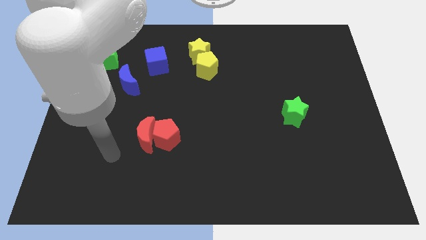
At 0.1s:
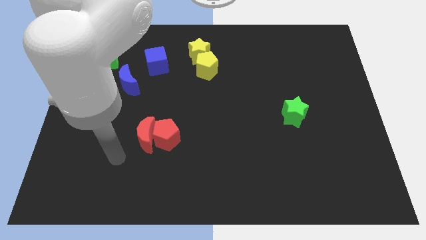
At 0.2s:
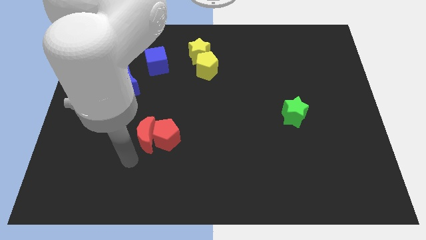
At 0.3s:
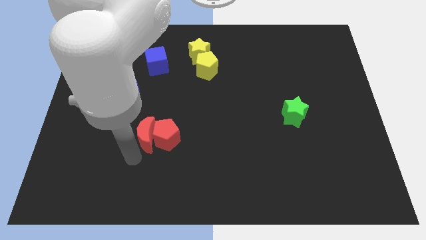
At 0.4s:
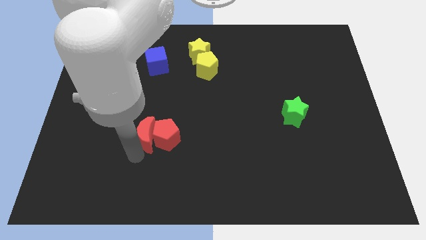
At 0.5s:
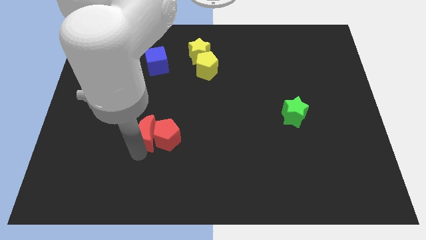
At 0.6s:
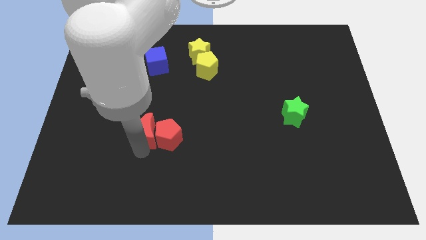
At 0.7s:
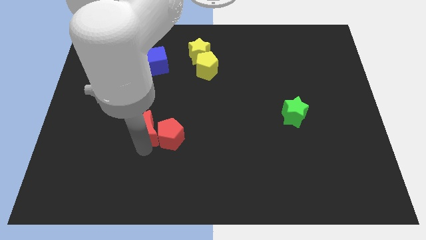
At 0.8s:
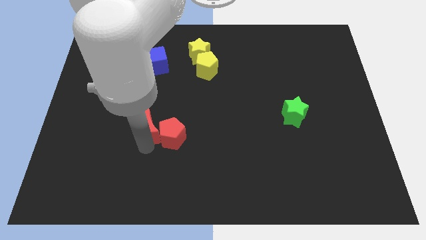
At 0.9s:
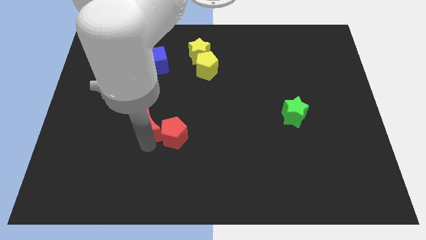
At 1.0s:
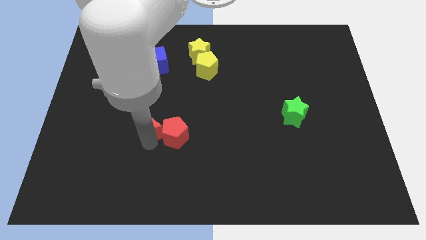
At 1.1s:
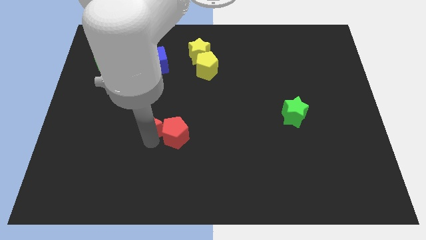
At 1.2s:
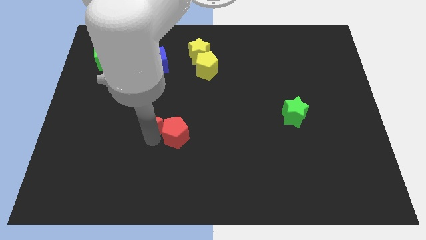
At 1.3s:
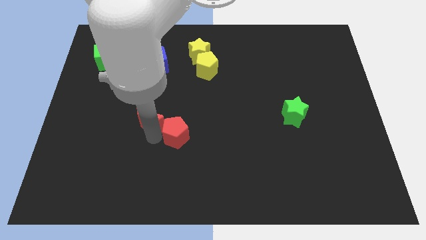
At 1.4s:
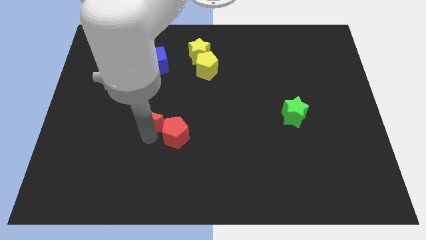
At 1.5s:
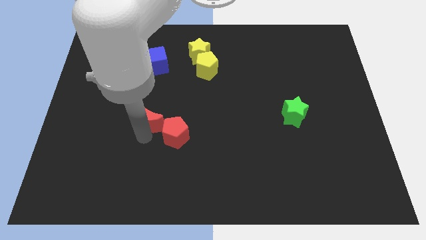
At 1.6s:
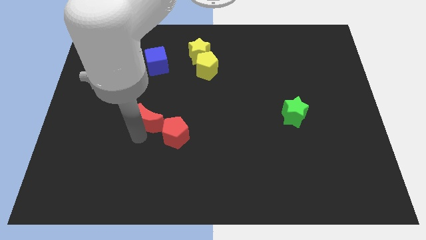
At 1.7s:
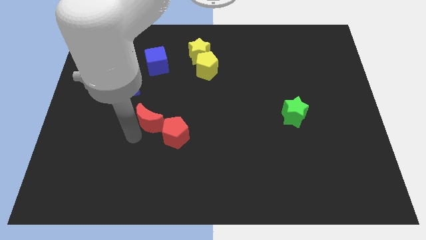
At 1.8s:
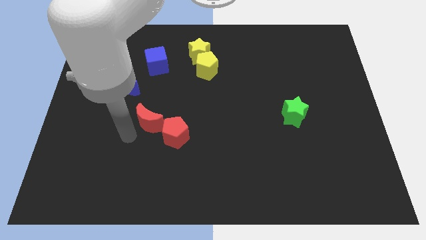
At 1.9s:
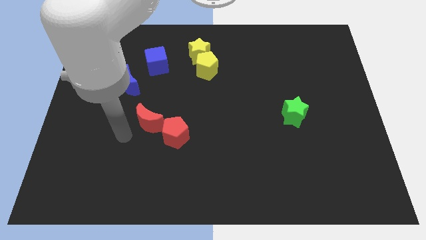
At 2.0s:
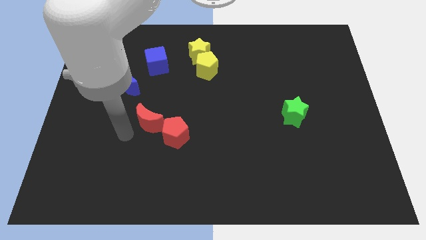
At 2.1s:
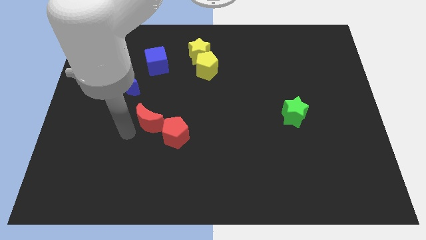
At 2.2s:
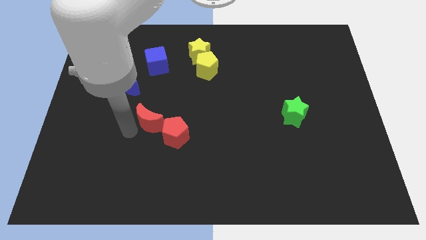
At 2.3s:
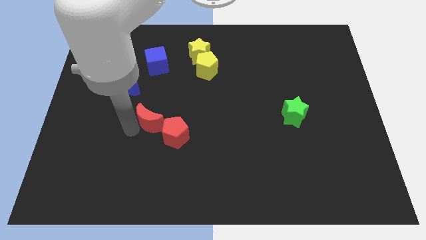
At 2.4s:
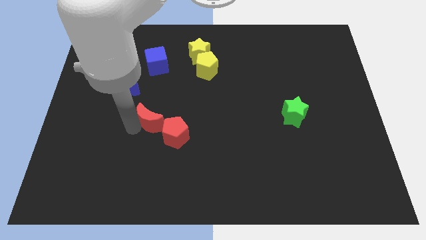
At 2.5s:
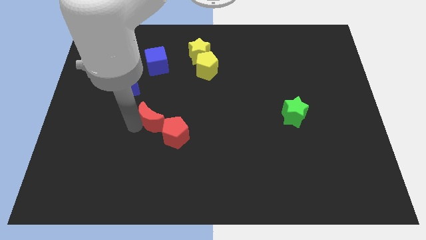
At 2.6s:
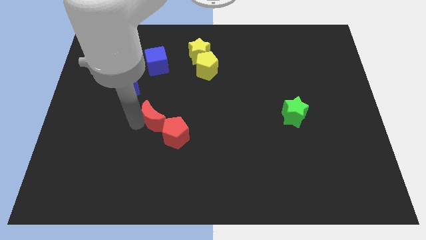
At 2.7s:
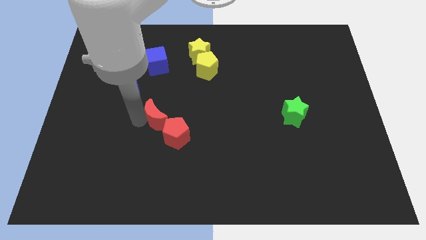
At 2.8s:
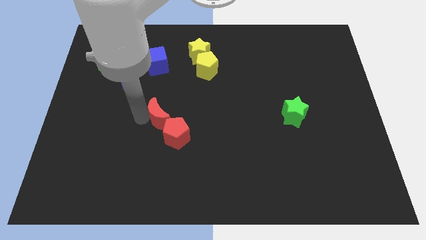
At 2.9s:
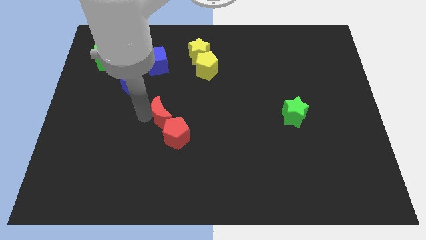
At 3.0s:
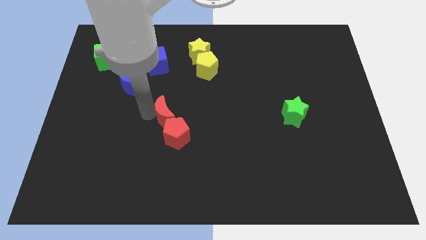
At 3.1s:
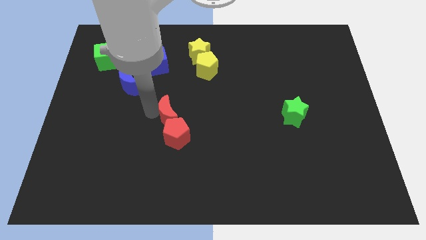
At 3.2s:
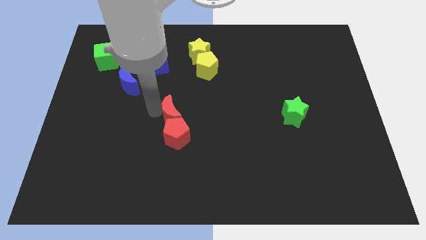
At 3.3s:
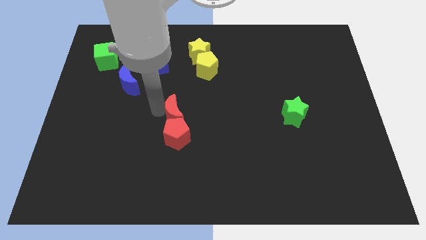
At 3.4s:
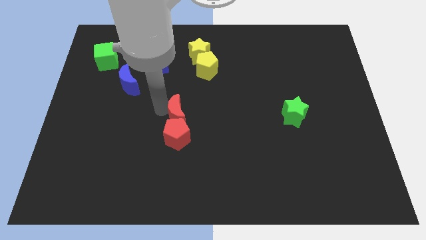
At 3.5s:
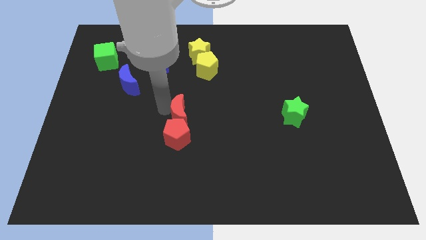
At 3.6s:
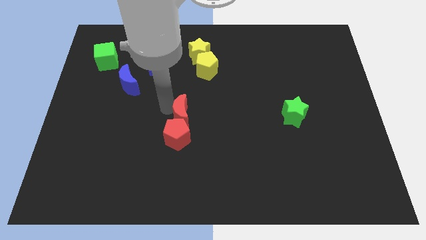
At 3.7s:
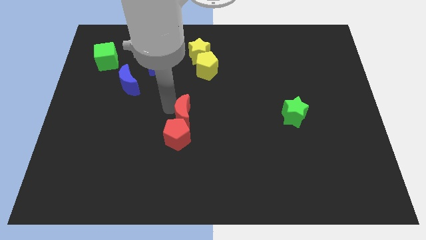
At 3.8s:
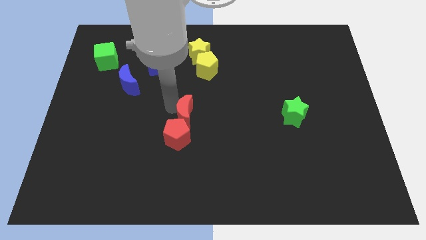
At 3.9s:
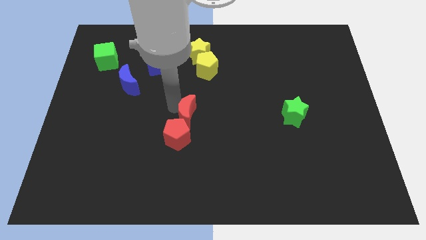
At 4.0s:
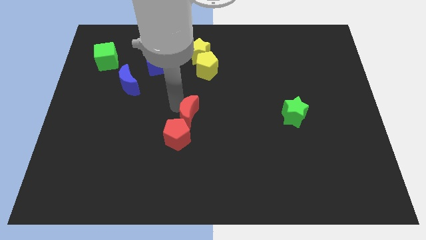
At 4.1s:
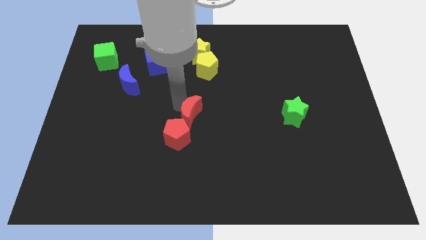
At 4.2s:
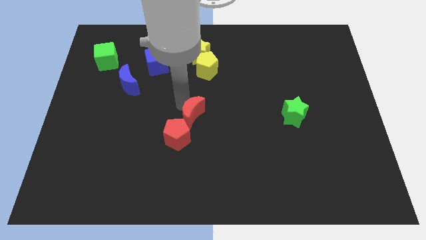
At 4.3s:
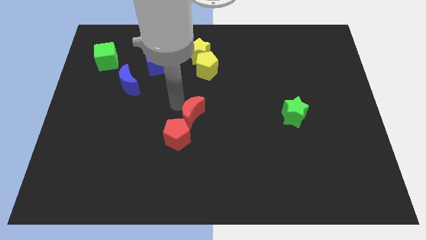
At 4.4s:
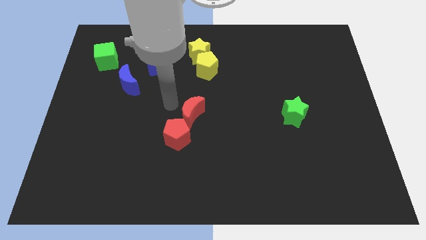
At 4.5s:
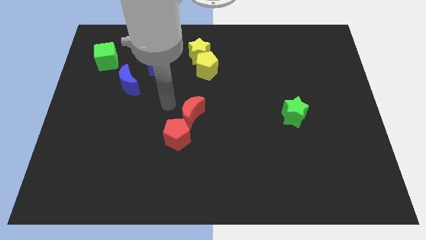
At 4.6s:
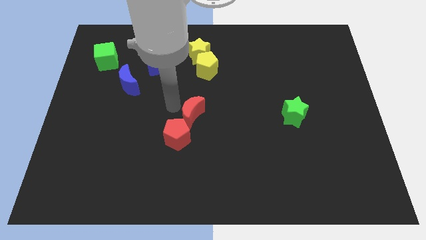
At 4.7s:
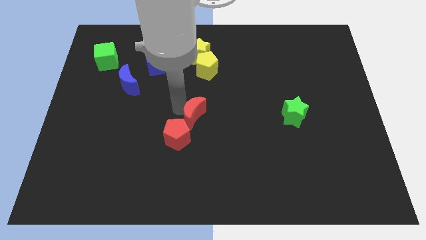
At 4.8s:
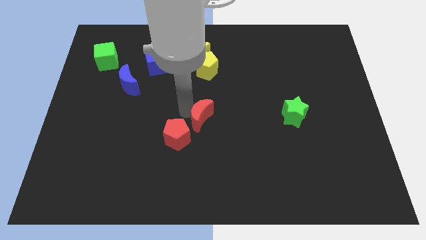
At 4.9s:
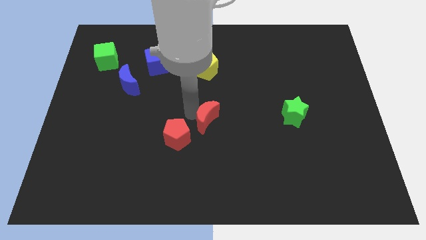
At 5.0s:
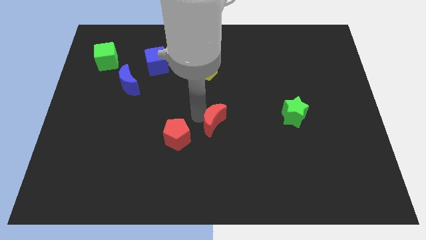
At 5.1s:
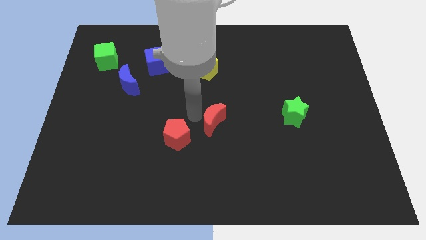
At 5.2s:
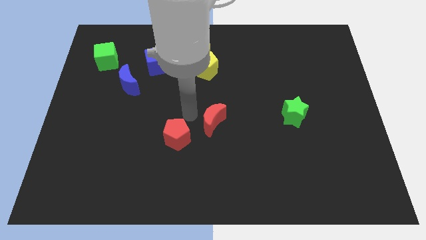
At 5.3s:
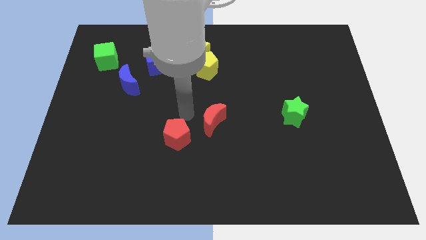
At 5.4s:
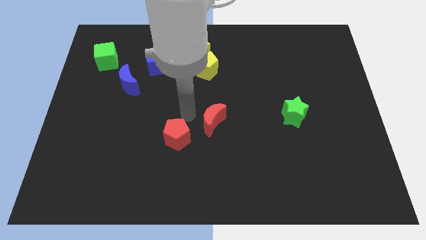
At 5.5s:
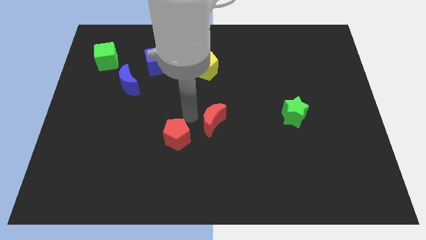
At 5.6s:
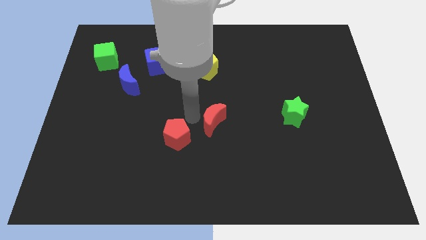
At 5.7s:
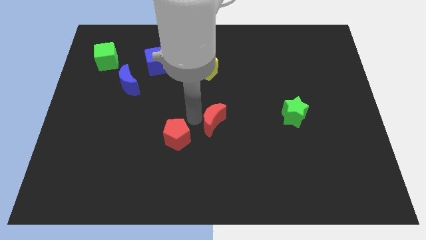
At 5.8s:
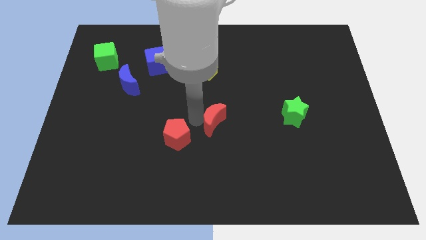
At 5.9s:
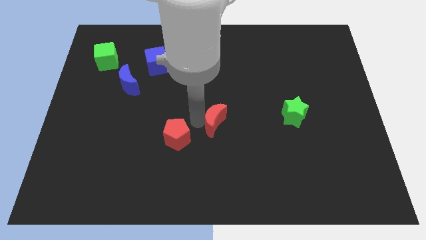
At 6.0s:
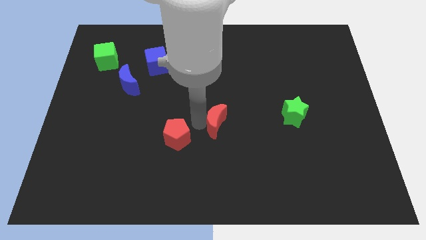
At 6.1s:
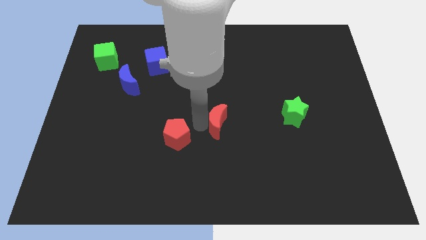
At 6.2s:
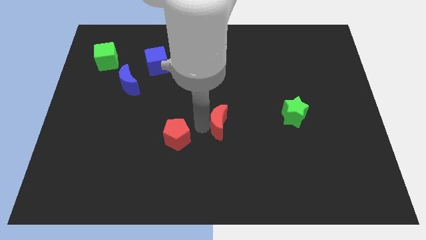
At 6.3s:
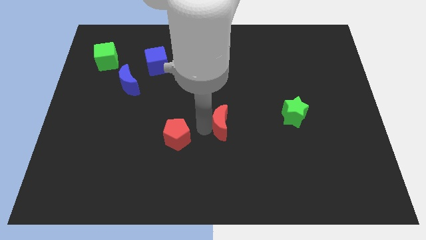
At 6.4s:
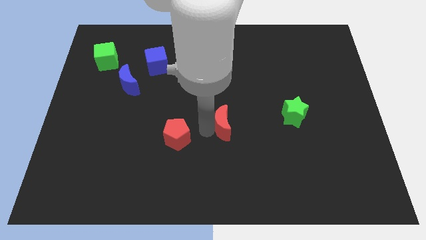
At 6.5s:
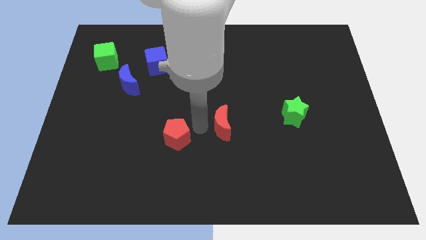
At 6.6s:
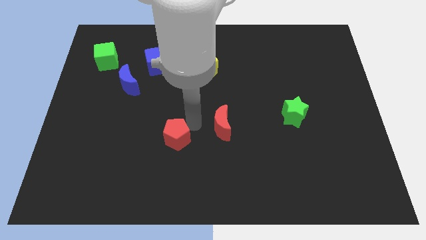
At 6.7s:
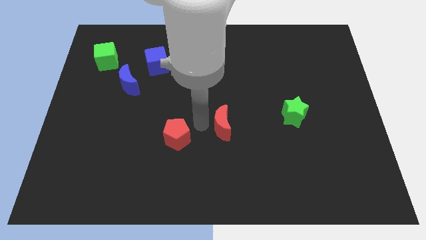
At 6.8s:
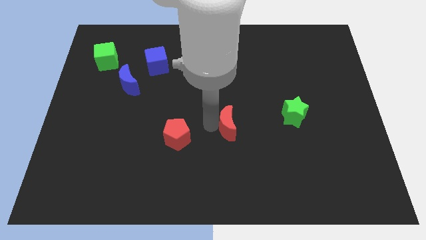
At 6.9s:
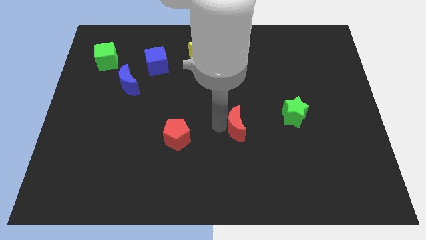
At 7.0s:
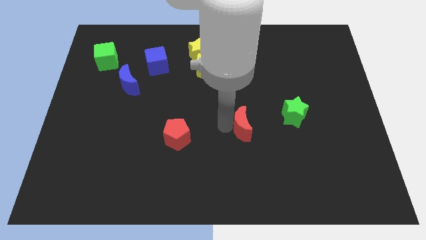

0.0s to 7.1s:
slide the red moon right

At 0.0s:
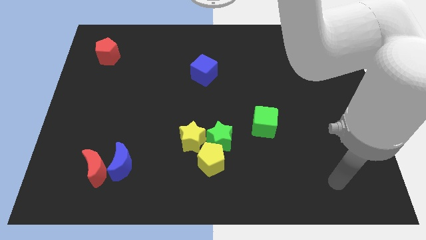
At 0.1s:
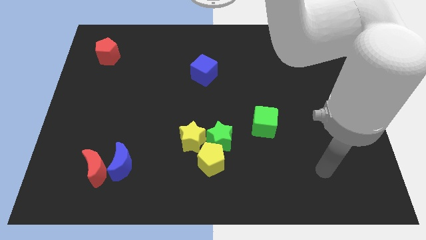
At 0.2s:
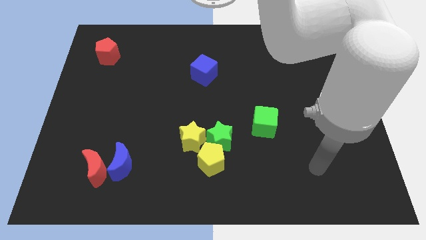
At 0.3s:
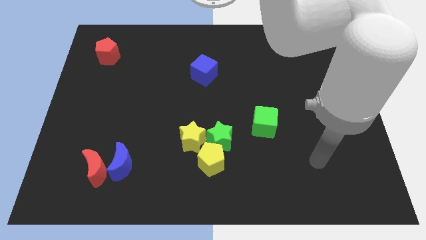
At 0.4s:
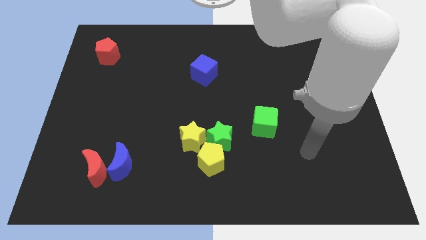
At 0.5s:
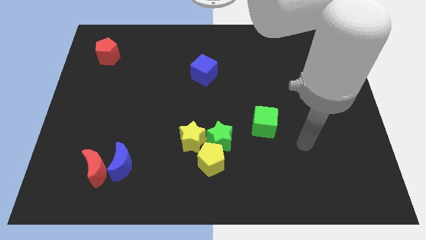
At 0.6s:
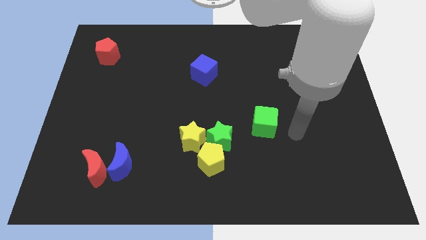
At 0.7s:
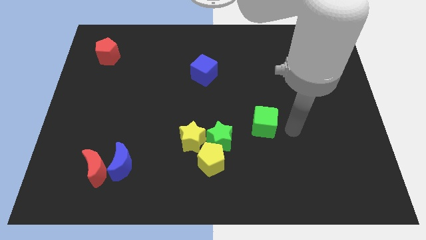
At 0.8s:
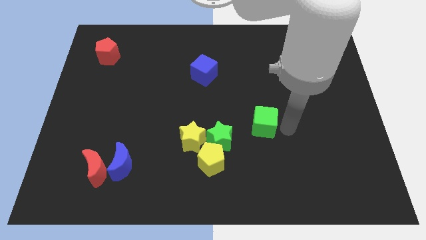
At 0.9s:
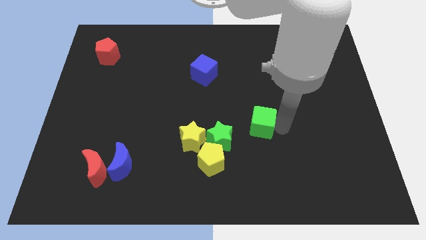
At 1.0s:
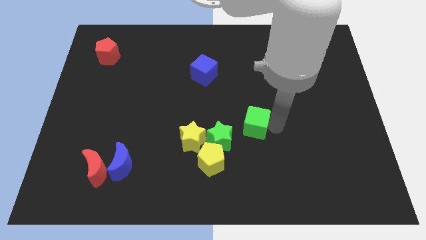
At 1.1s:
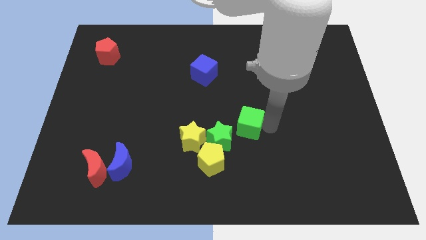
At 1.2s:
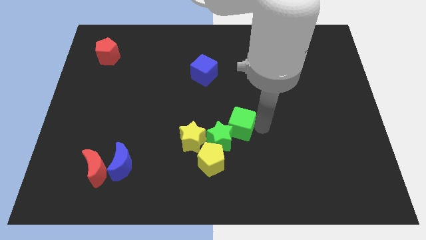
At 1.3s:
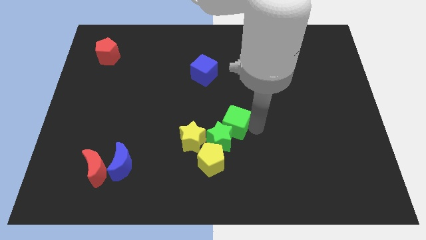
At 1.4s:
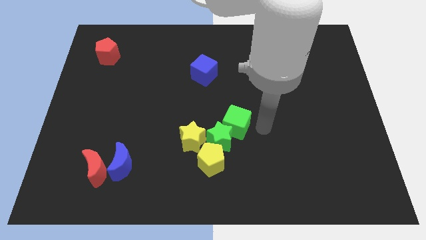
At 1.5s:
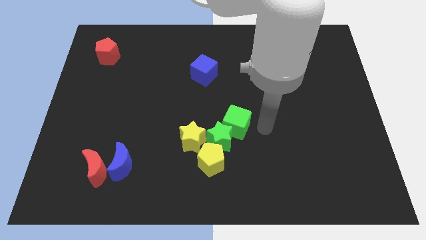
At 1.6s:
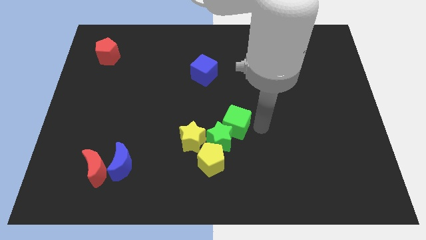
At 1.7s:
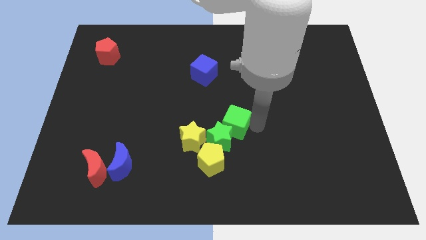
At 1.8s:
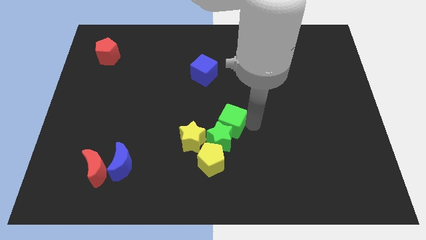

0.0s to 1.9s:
slide the green cube somewhat left
